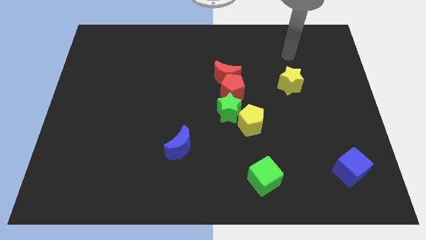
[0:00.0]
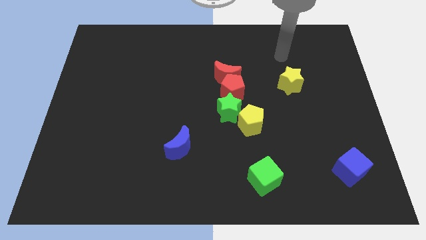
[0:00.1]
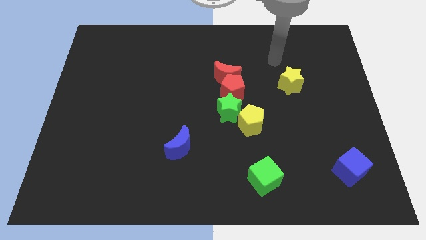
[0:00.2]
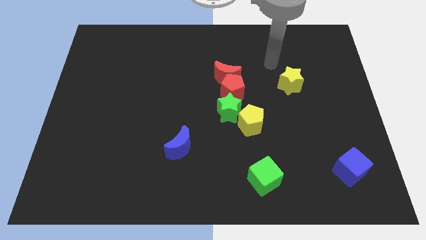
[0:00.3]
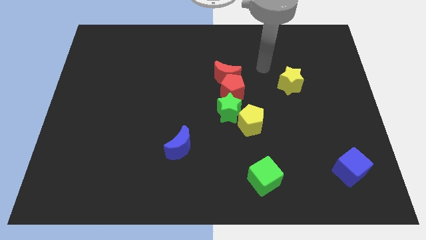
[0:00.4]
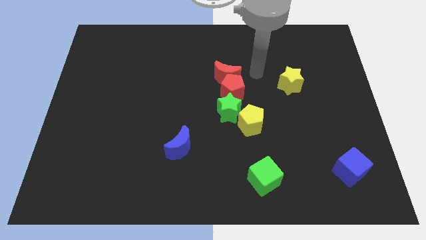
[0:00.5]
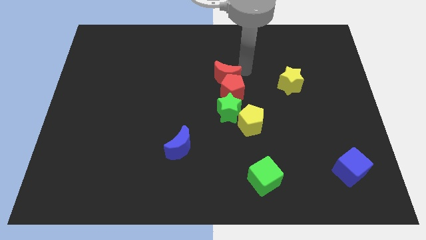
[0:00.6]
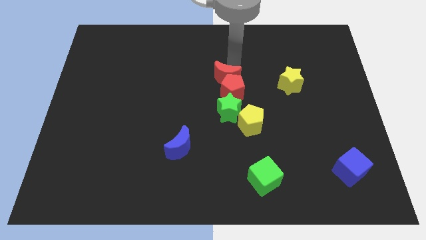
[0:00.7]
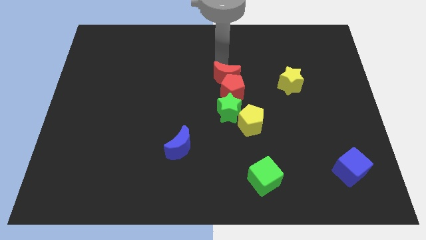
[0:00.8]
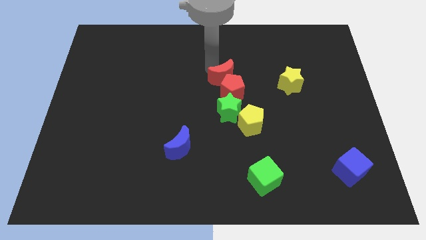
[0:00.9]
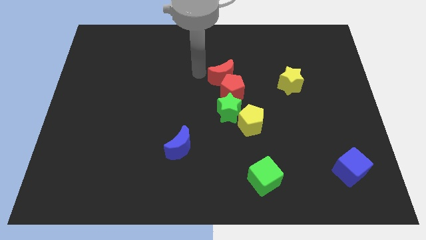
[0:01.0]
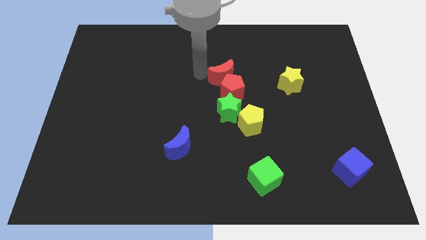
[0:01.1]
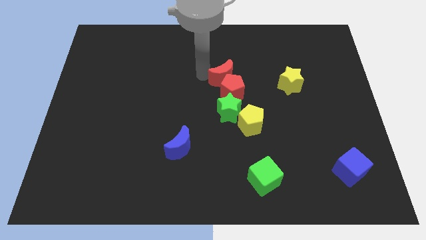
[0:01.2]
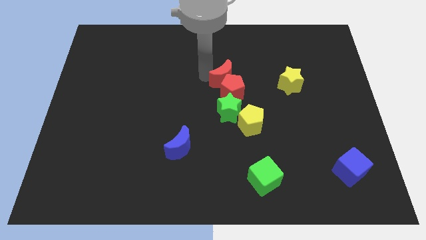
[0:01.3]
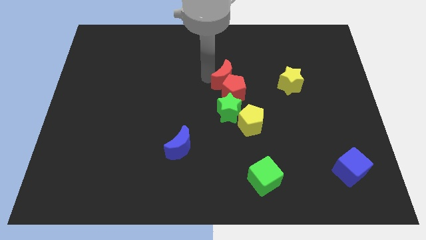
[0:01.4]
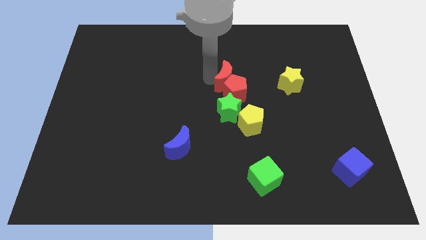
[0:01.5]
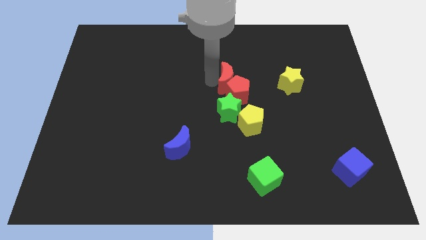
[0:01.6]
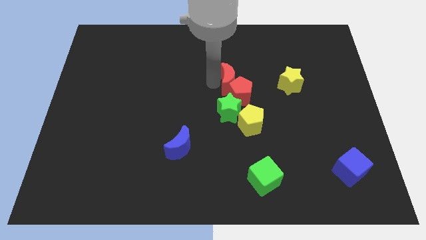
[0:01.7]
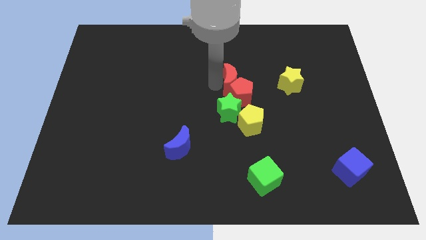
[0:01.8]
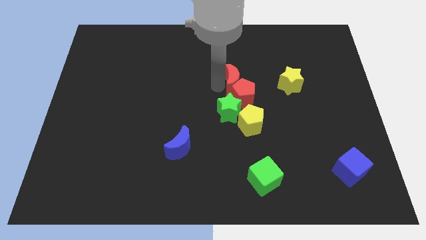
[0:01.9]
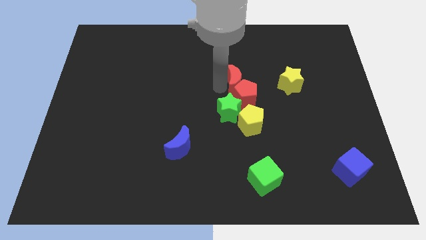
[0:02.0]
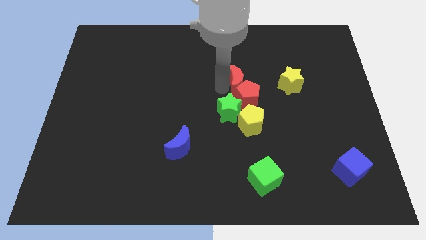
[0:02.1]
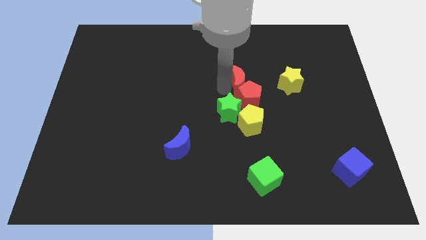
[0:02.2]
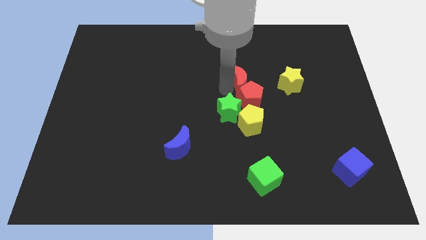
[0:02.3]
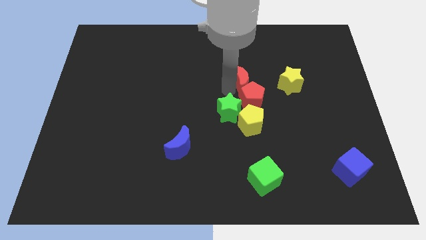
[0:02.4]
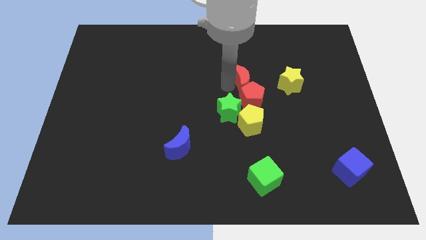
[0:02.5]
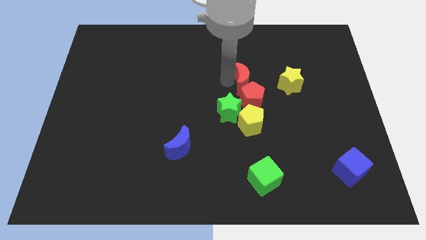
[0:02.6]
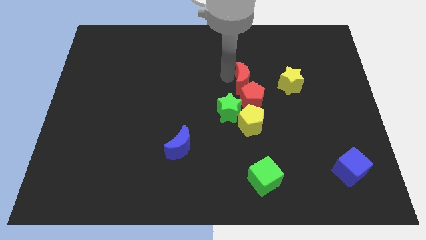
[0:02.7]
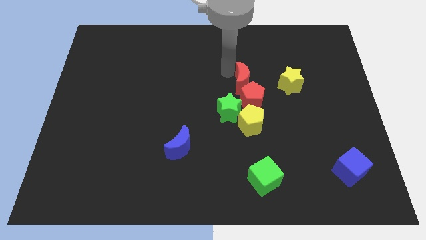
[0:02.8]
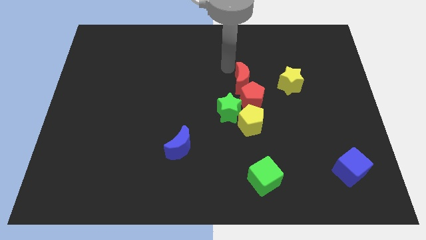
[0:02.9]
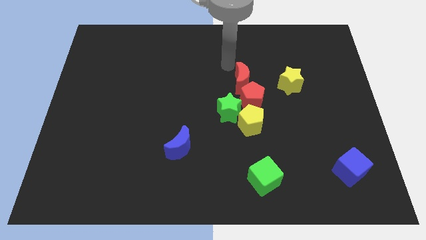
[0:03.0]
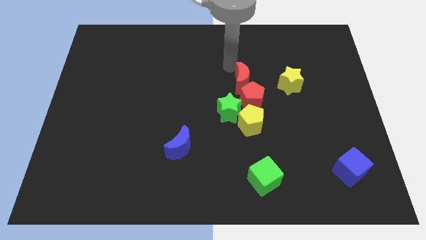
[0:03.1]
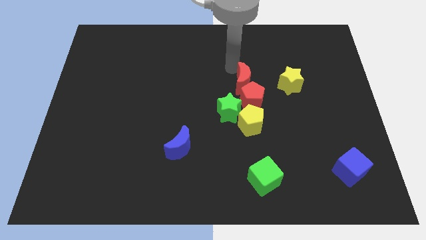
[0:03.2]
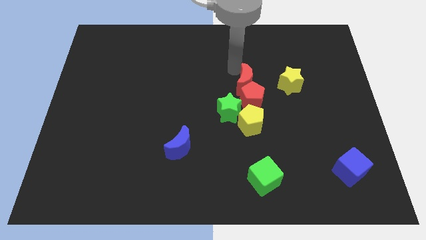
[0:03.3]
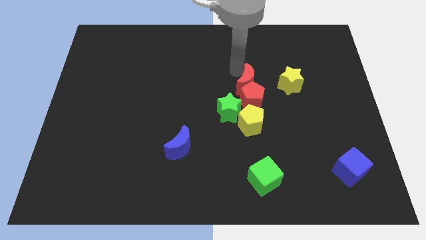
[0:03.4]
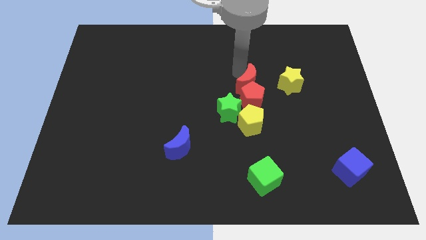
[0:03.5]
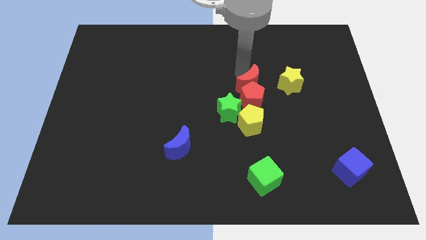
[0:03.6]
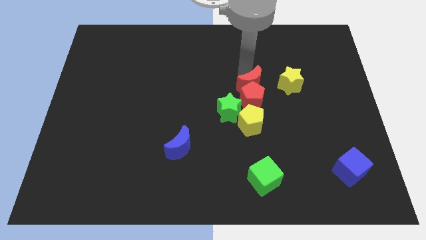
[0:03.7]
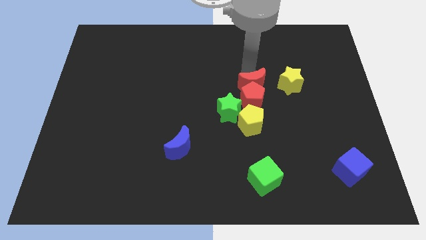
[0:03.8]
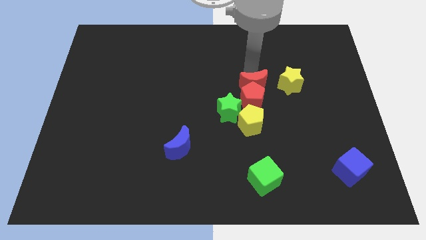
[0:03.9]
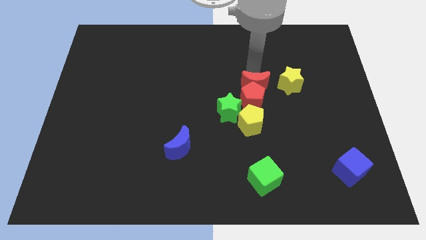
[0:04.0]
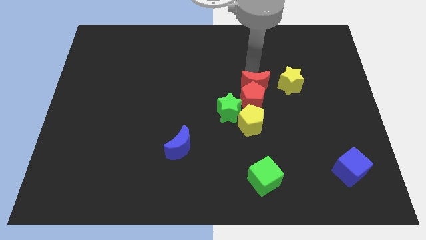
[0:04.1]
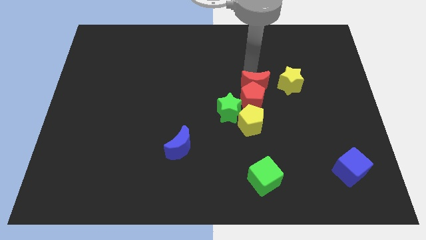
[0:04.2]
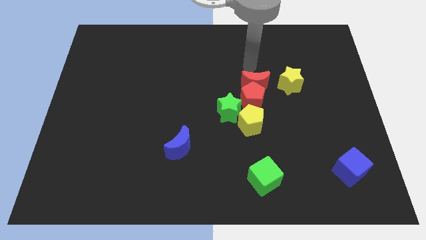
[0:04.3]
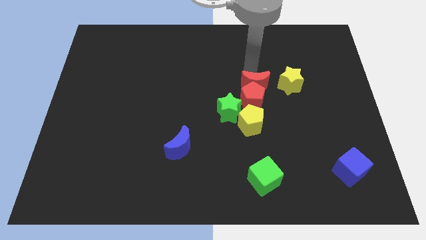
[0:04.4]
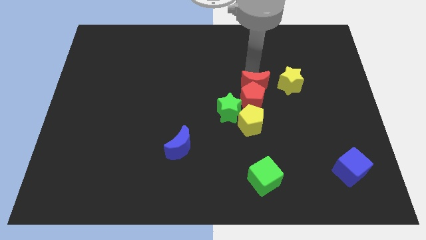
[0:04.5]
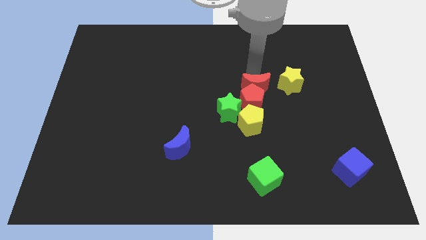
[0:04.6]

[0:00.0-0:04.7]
push the red moon downwards and right diagonally a little

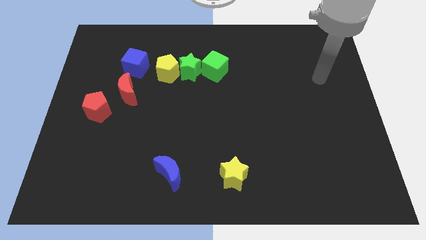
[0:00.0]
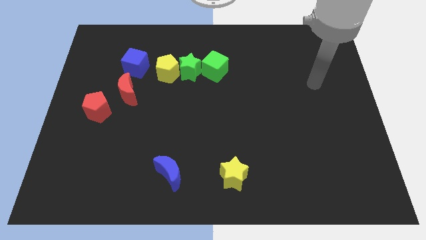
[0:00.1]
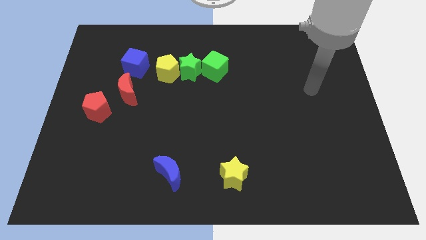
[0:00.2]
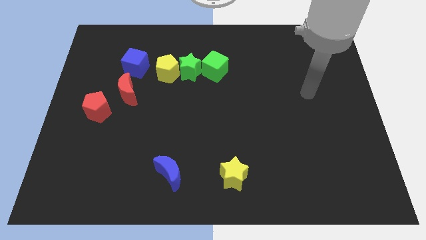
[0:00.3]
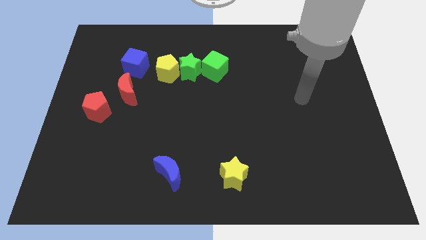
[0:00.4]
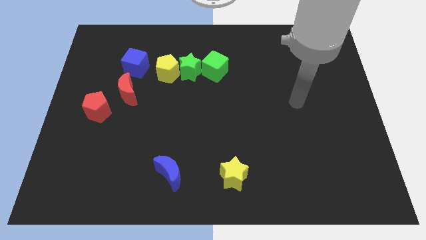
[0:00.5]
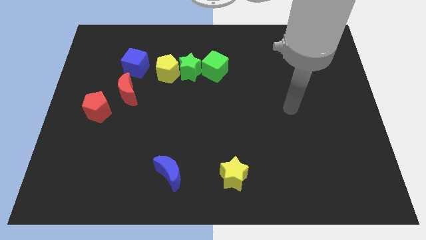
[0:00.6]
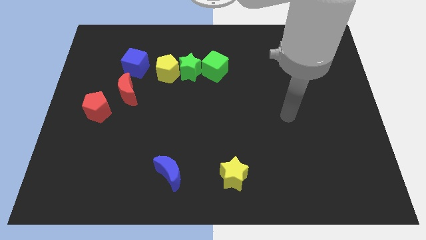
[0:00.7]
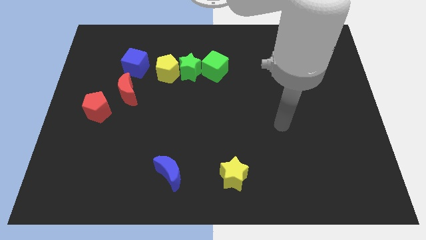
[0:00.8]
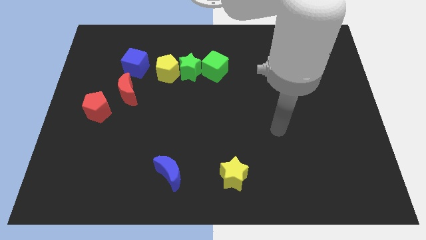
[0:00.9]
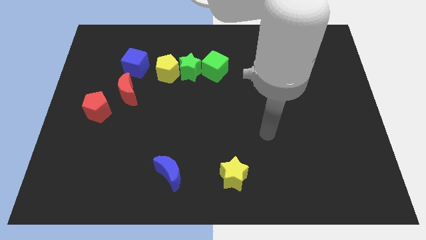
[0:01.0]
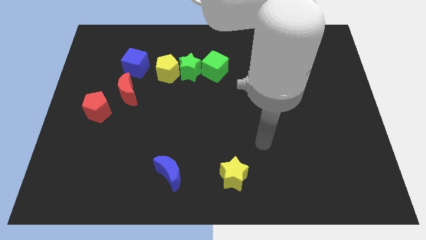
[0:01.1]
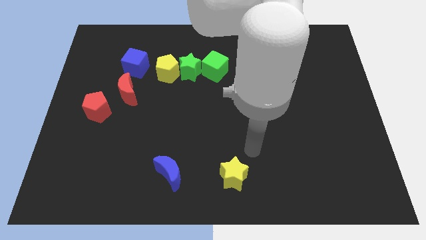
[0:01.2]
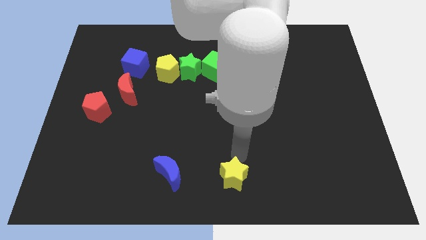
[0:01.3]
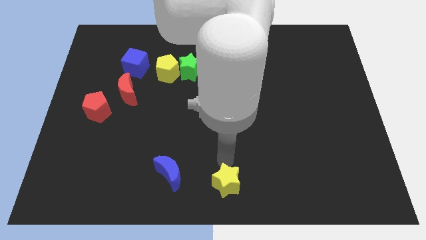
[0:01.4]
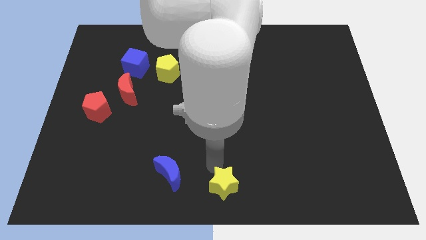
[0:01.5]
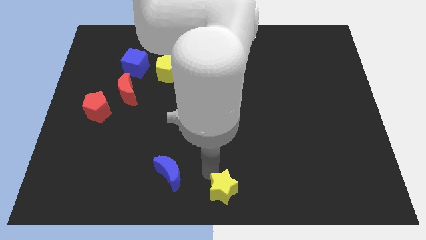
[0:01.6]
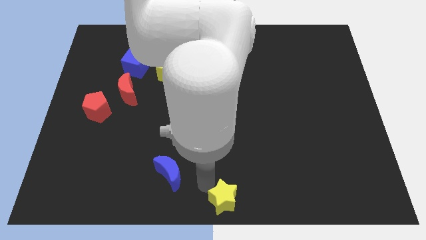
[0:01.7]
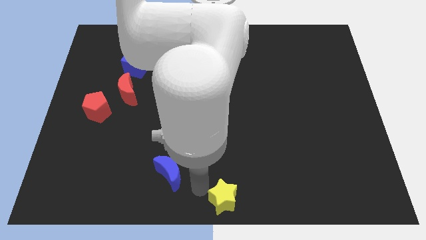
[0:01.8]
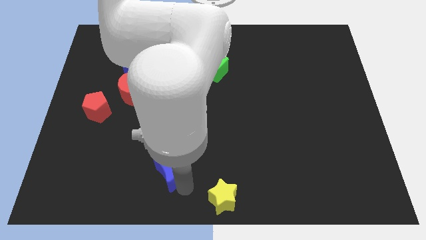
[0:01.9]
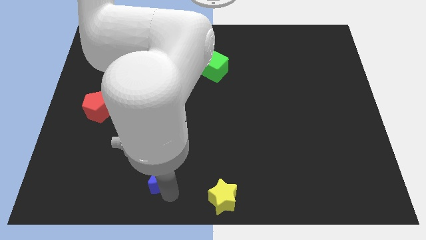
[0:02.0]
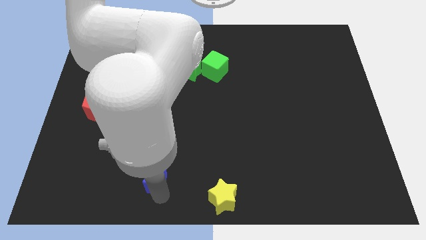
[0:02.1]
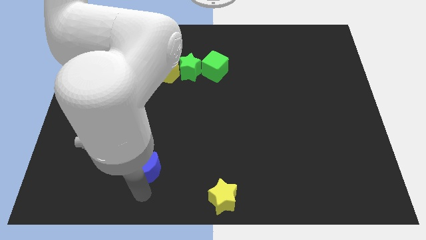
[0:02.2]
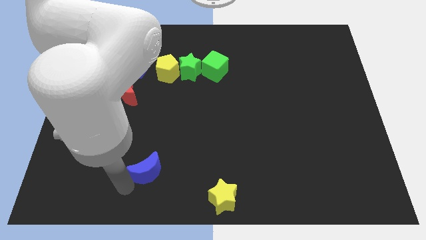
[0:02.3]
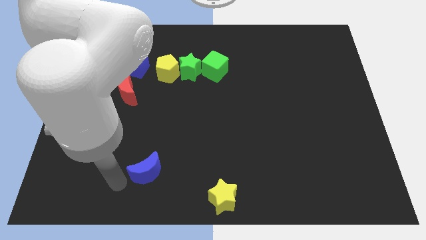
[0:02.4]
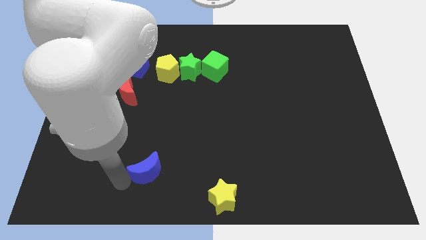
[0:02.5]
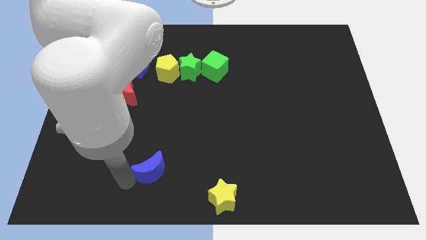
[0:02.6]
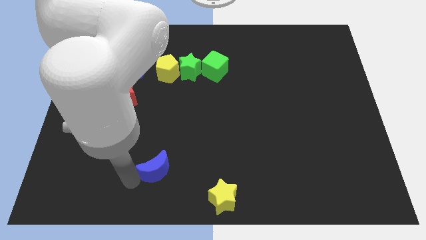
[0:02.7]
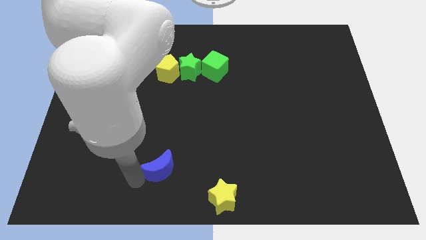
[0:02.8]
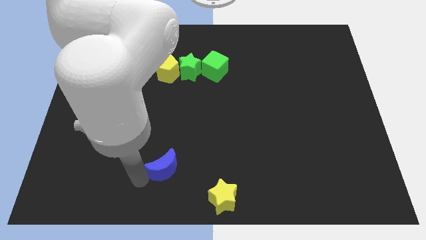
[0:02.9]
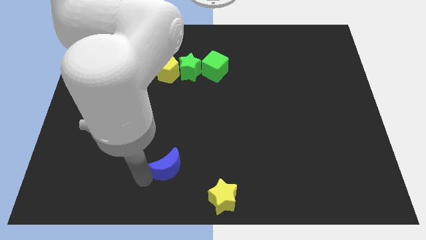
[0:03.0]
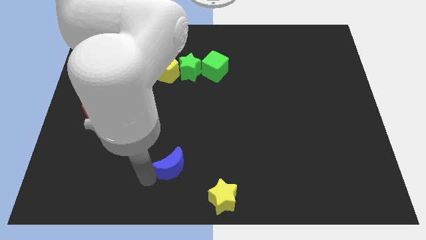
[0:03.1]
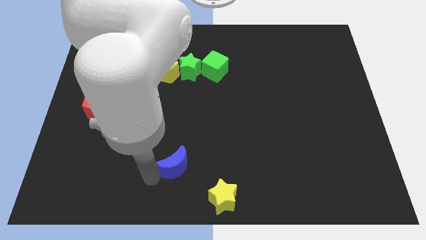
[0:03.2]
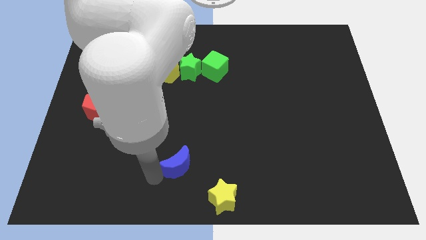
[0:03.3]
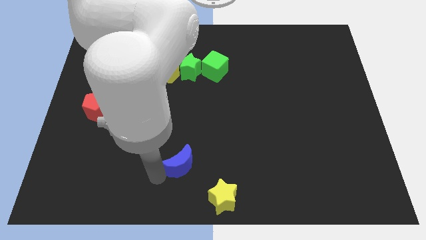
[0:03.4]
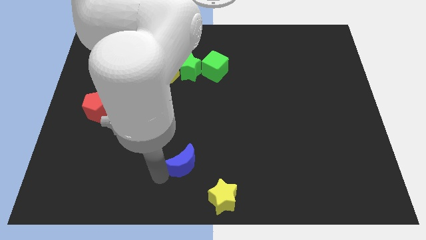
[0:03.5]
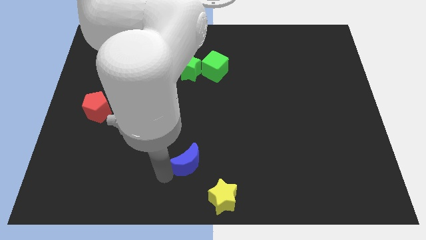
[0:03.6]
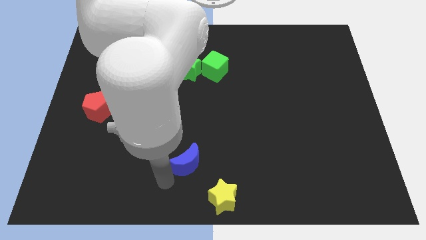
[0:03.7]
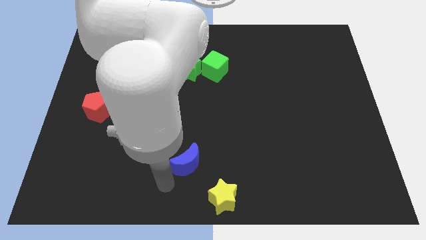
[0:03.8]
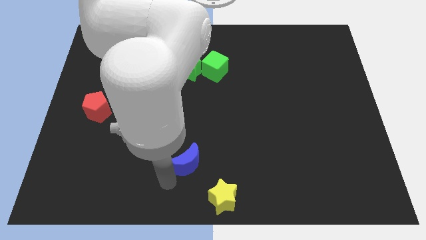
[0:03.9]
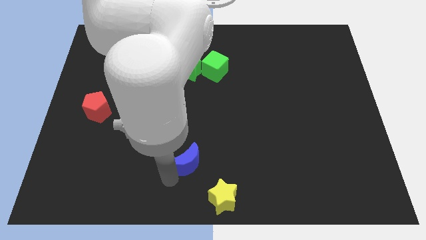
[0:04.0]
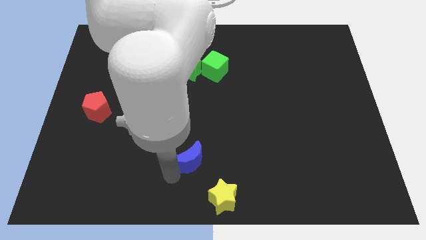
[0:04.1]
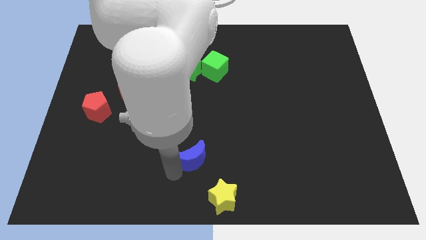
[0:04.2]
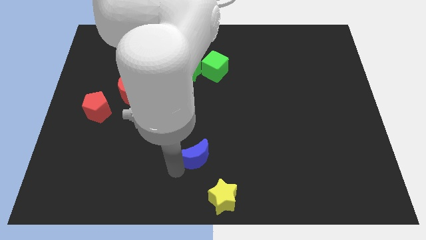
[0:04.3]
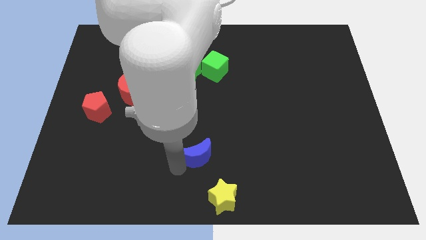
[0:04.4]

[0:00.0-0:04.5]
slide the blue moon diagonally upwards and right a bit
